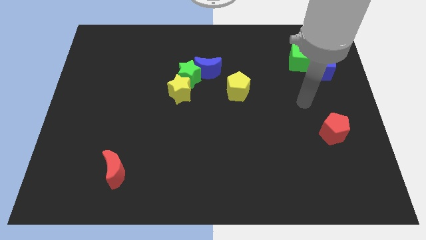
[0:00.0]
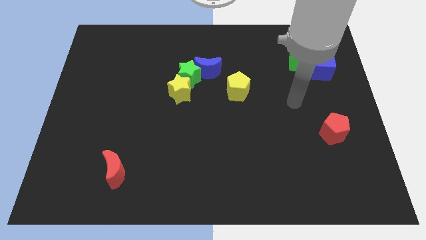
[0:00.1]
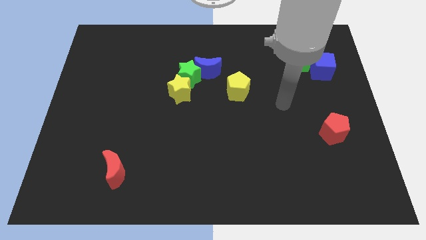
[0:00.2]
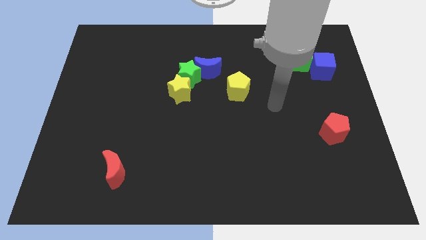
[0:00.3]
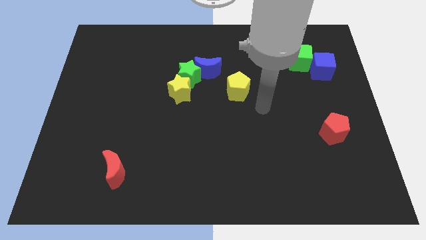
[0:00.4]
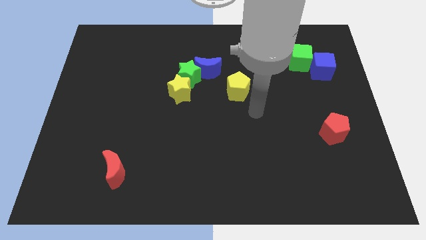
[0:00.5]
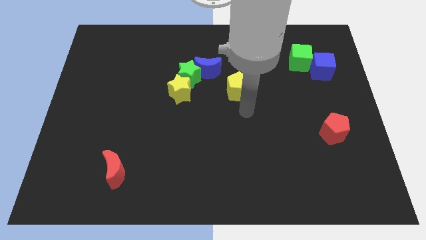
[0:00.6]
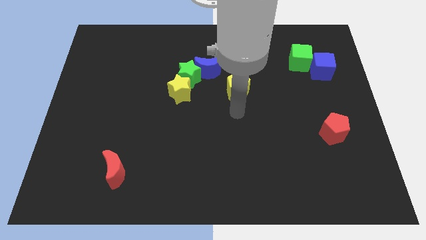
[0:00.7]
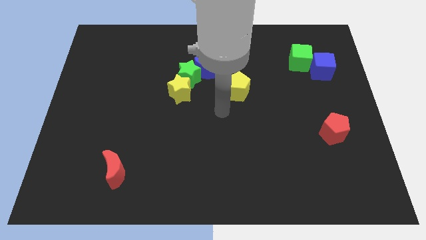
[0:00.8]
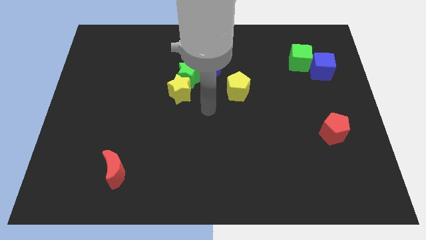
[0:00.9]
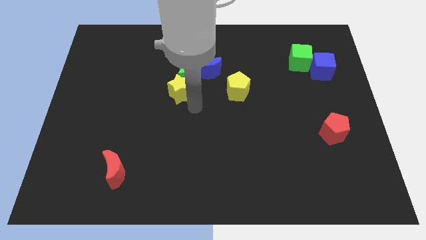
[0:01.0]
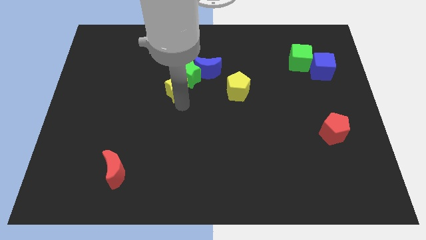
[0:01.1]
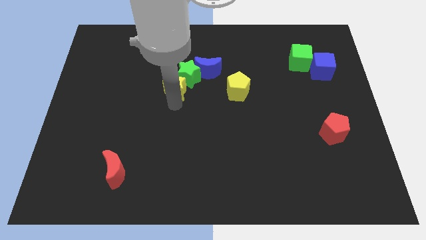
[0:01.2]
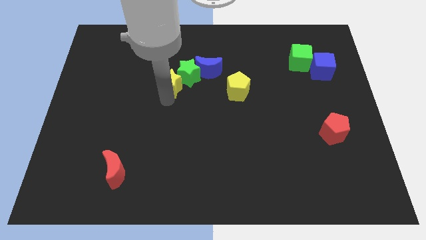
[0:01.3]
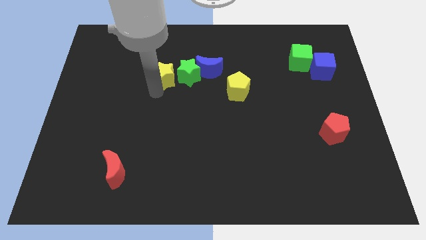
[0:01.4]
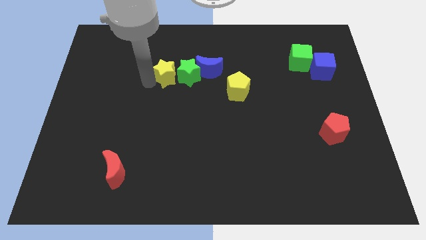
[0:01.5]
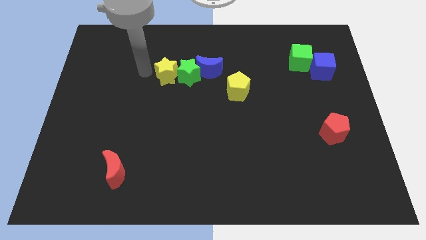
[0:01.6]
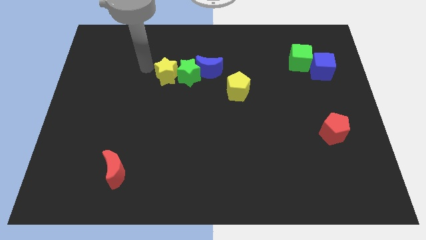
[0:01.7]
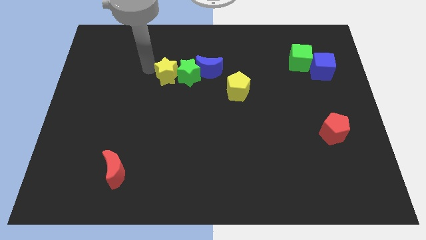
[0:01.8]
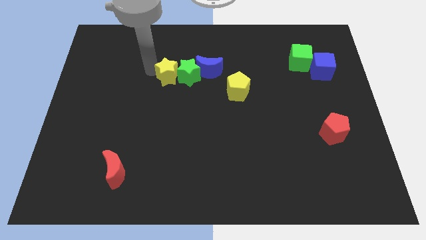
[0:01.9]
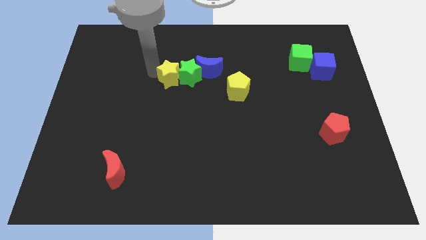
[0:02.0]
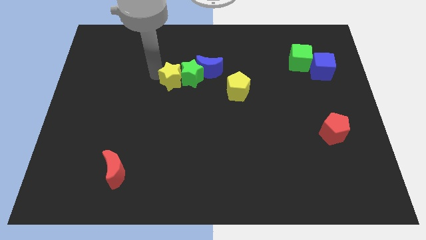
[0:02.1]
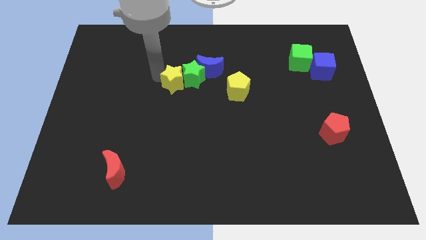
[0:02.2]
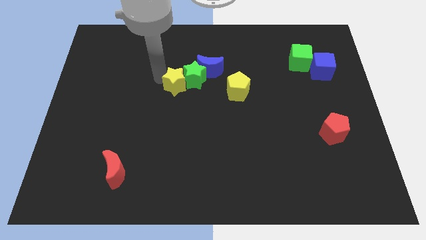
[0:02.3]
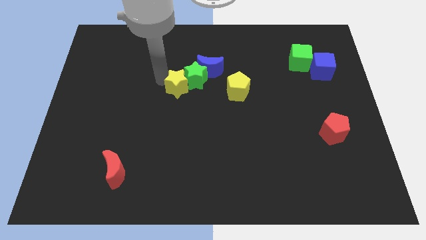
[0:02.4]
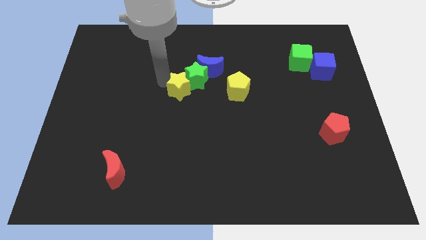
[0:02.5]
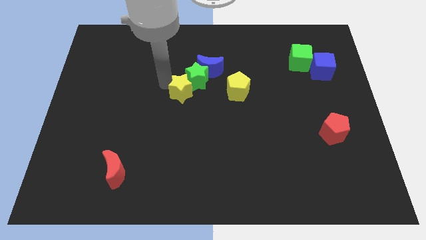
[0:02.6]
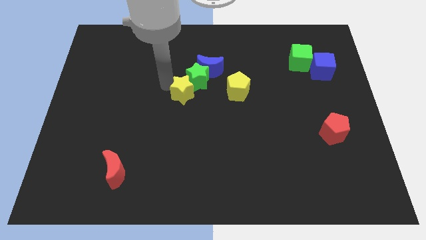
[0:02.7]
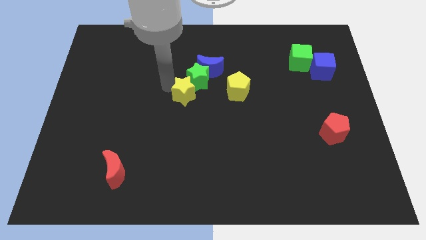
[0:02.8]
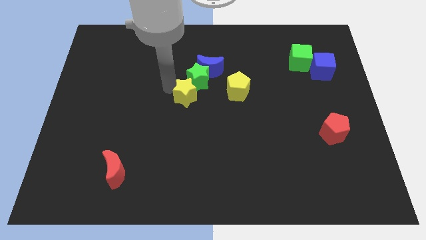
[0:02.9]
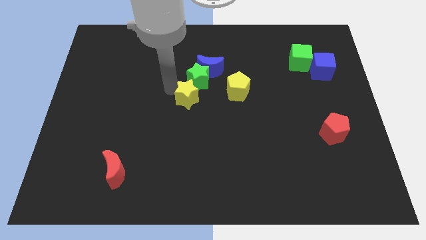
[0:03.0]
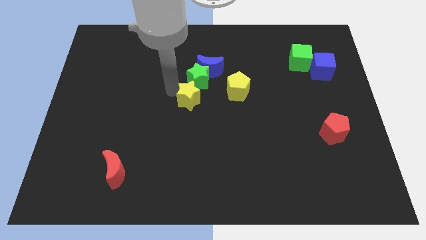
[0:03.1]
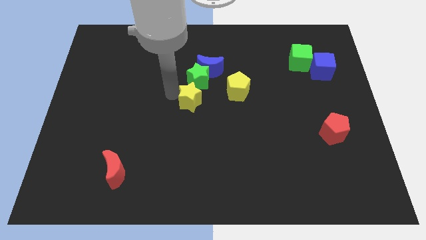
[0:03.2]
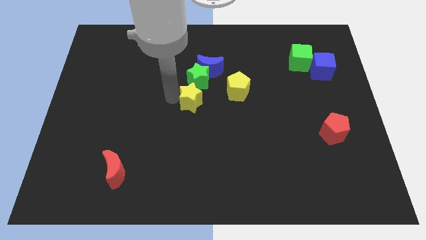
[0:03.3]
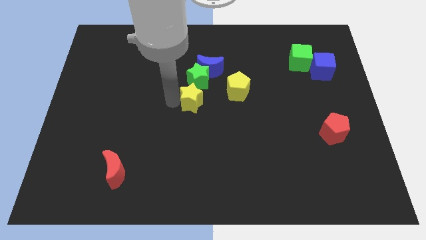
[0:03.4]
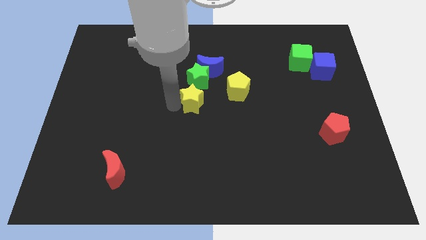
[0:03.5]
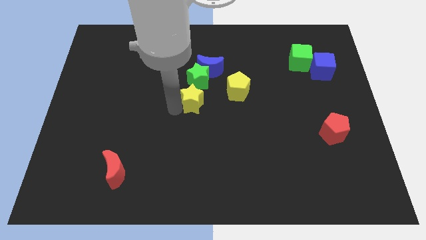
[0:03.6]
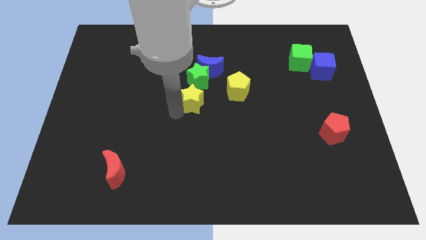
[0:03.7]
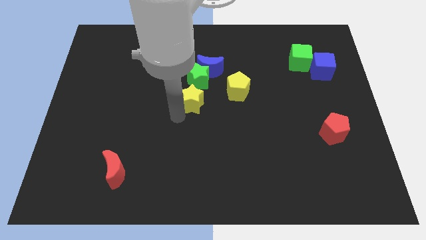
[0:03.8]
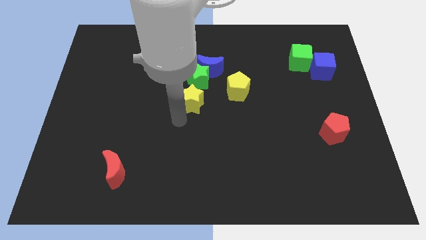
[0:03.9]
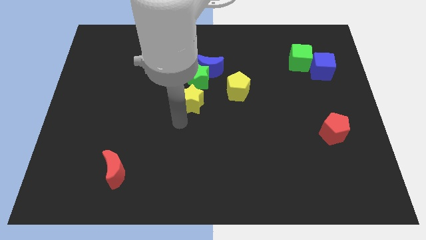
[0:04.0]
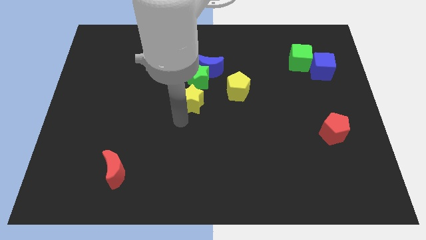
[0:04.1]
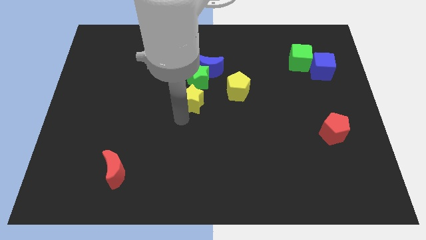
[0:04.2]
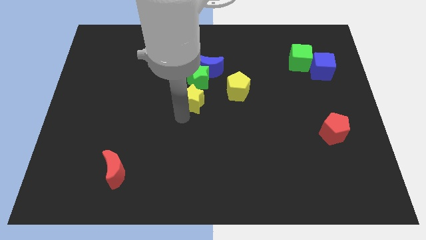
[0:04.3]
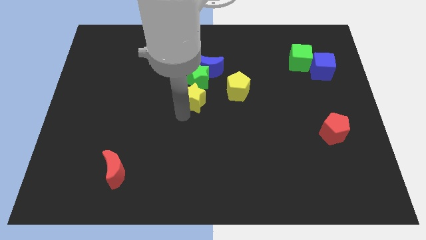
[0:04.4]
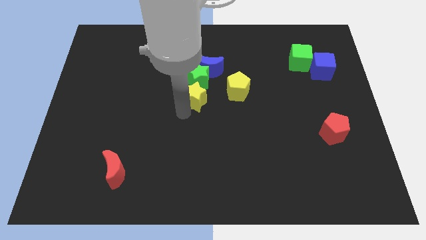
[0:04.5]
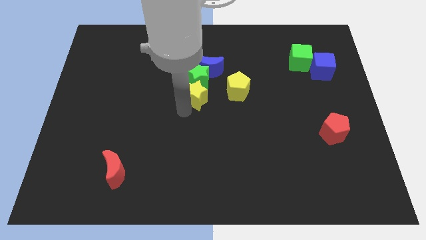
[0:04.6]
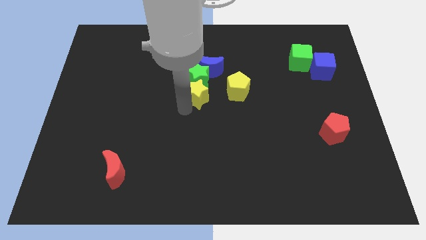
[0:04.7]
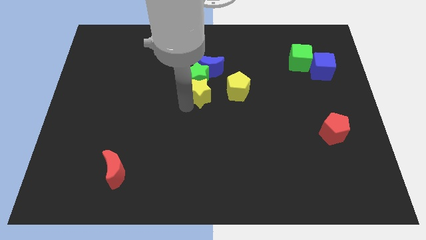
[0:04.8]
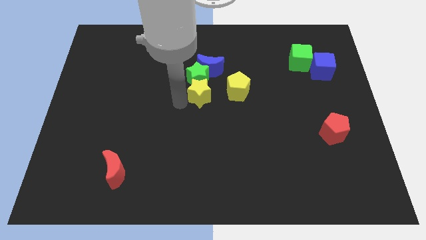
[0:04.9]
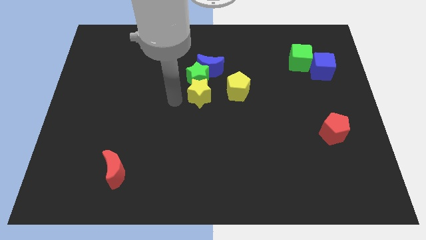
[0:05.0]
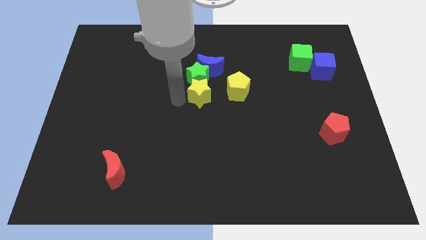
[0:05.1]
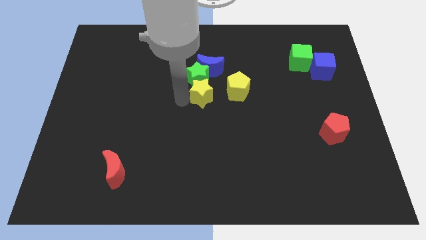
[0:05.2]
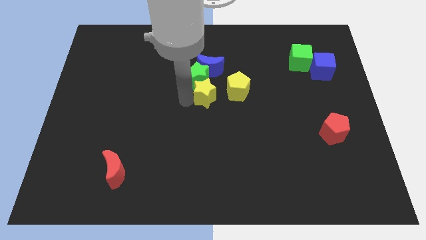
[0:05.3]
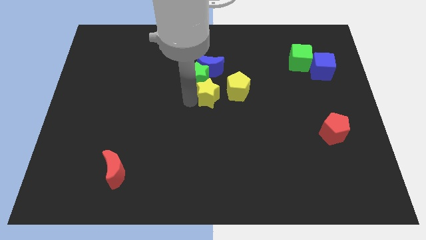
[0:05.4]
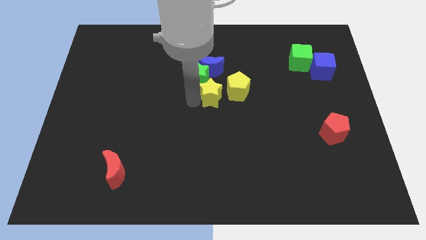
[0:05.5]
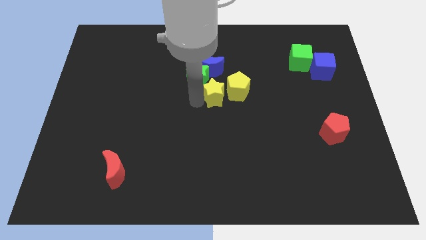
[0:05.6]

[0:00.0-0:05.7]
put the yellow star next to the yellow pentagon
